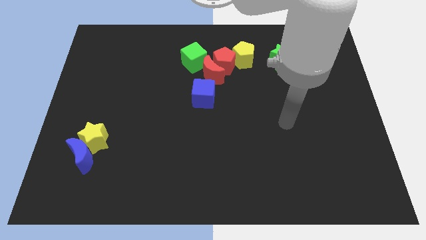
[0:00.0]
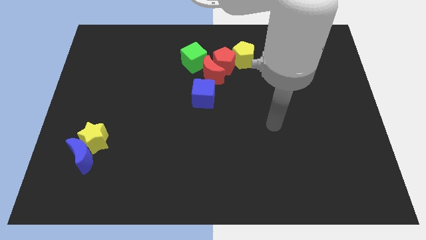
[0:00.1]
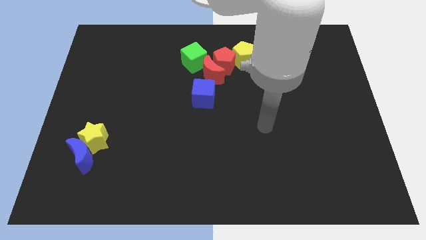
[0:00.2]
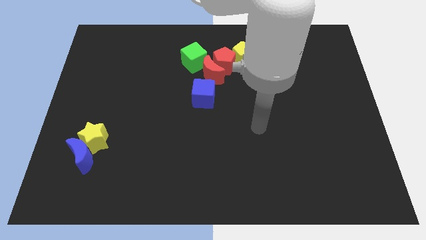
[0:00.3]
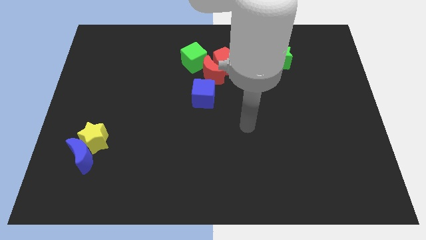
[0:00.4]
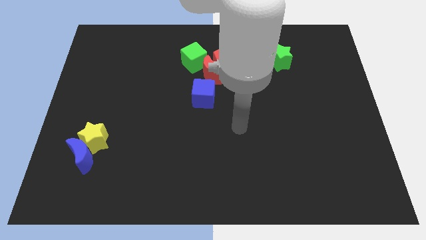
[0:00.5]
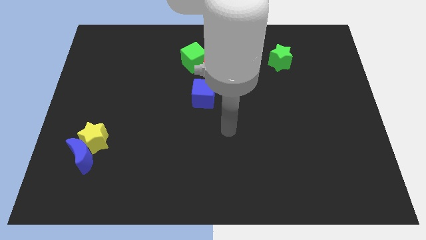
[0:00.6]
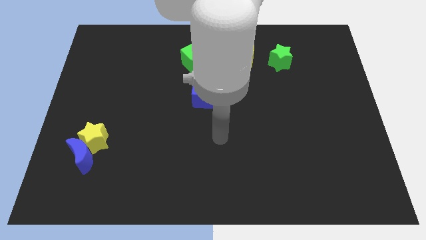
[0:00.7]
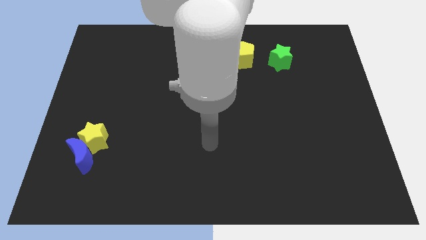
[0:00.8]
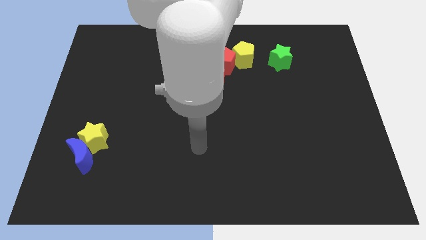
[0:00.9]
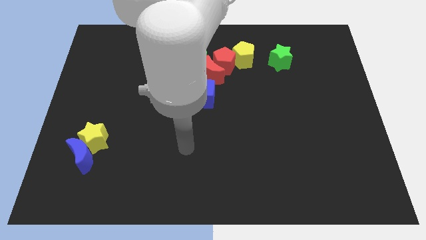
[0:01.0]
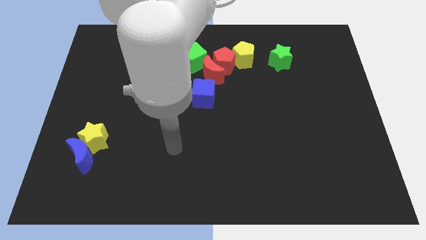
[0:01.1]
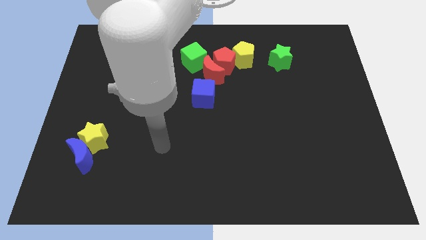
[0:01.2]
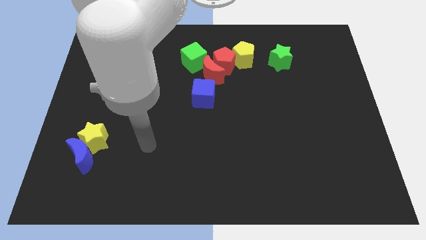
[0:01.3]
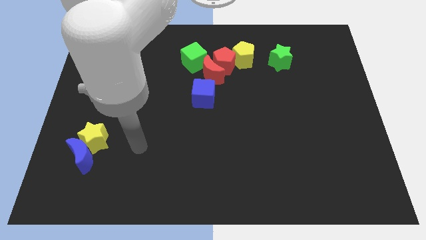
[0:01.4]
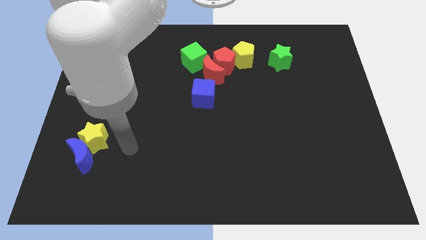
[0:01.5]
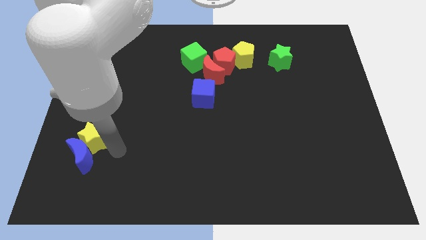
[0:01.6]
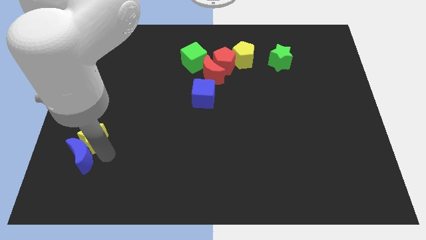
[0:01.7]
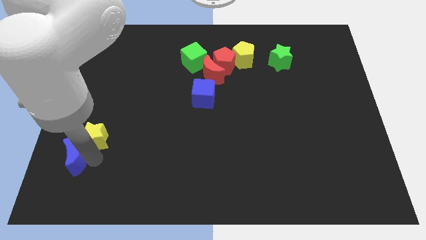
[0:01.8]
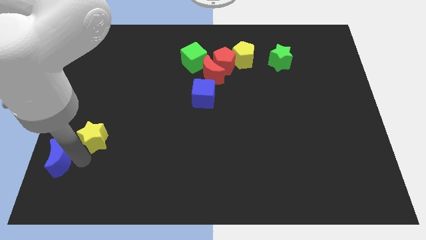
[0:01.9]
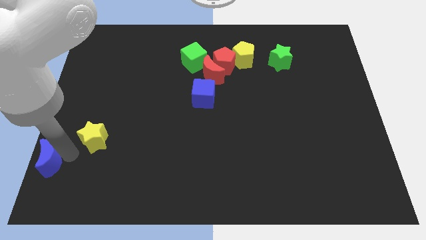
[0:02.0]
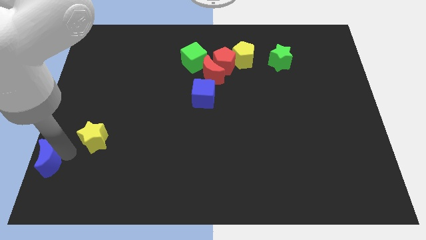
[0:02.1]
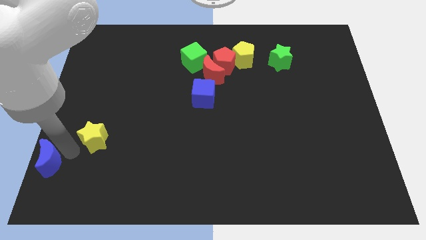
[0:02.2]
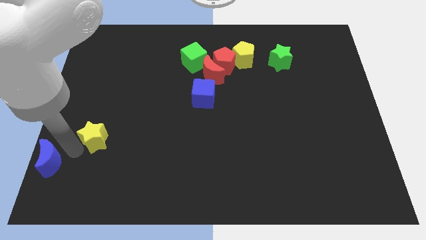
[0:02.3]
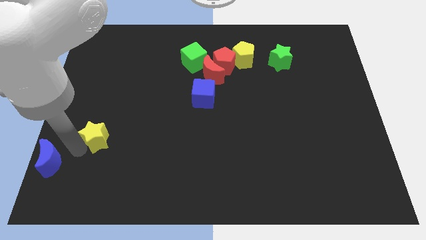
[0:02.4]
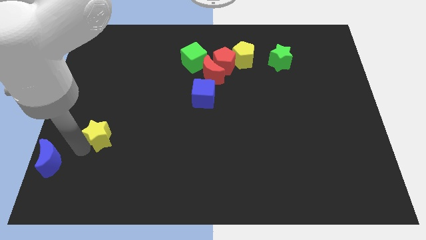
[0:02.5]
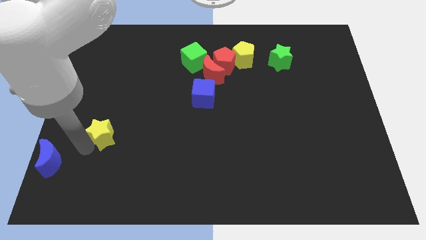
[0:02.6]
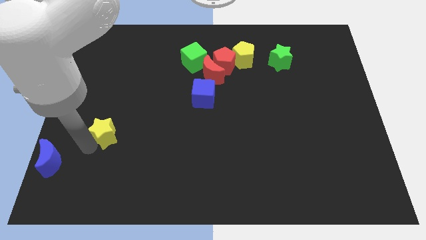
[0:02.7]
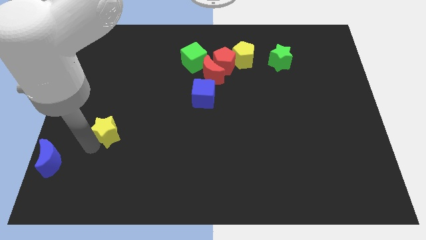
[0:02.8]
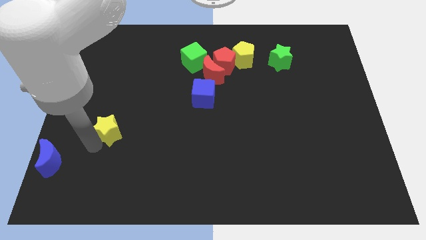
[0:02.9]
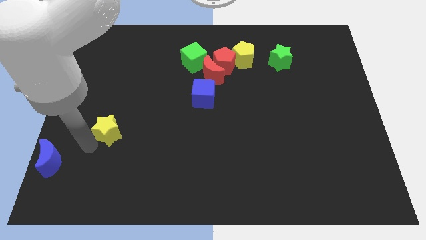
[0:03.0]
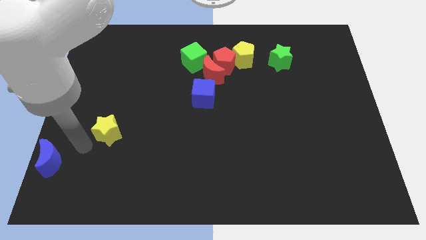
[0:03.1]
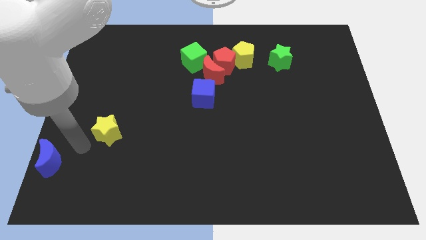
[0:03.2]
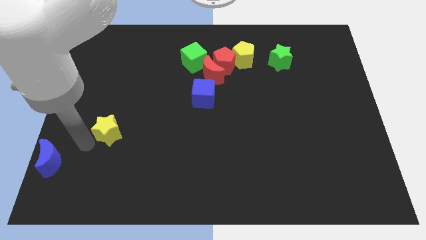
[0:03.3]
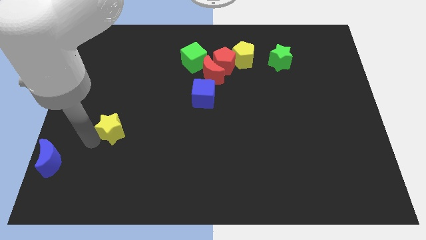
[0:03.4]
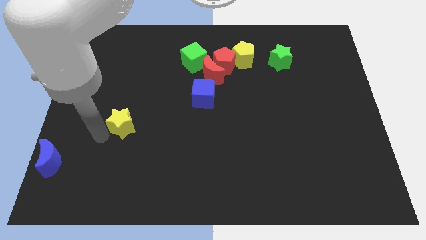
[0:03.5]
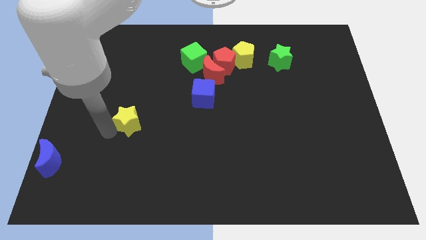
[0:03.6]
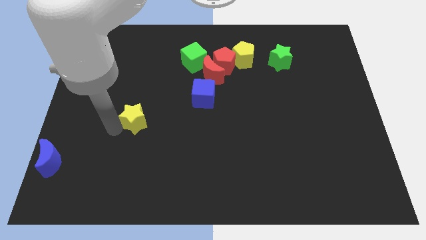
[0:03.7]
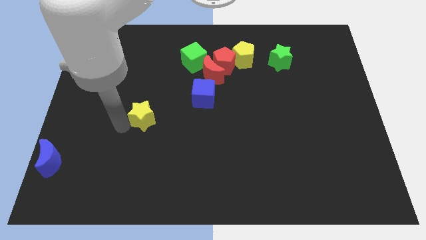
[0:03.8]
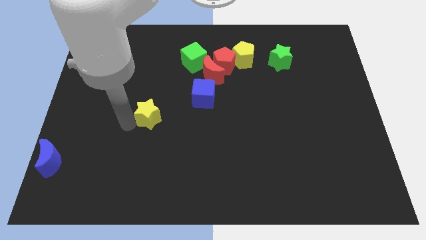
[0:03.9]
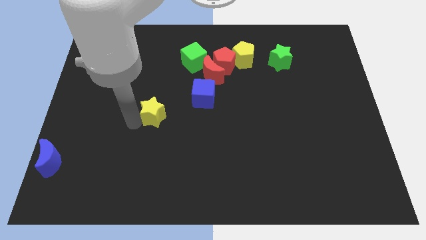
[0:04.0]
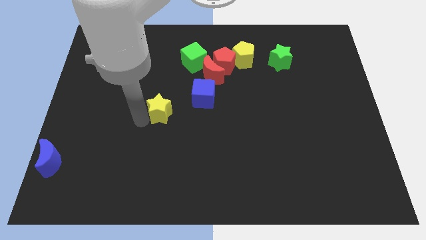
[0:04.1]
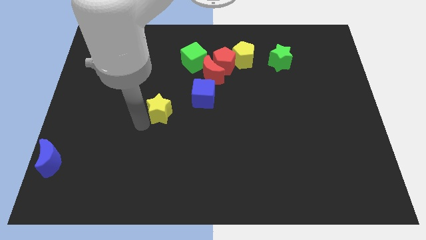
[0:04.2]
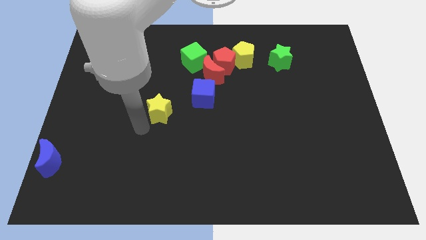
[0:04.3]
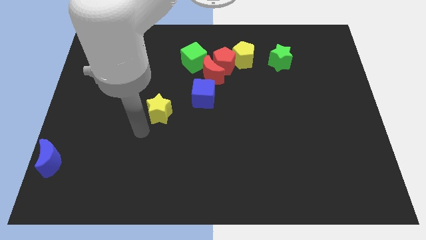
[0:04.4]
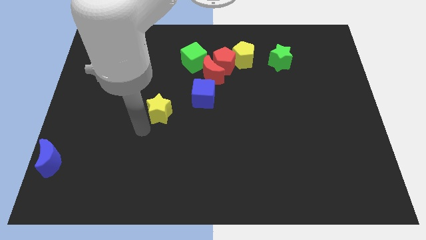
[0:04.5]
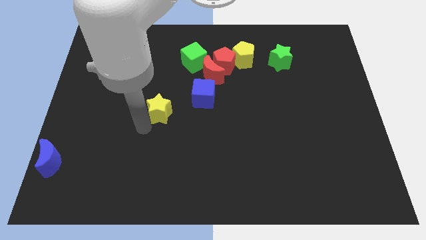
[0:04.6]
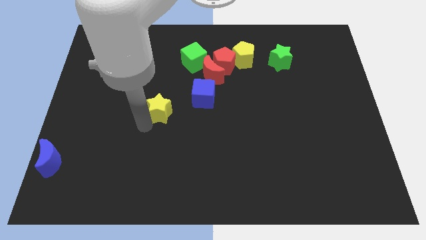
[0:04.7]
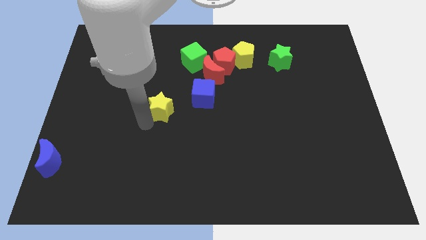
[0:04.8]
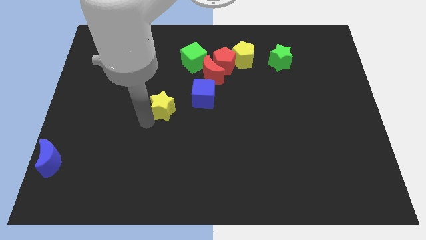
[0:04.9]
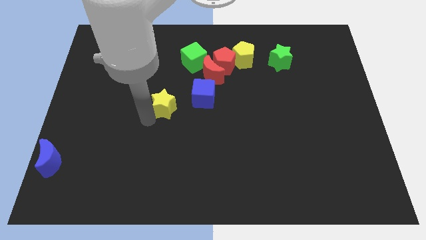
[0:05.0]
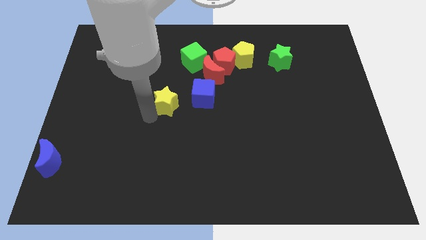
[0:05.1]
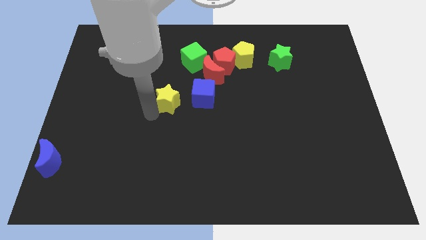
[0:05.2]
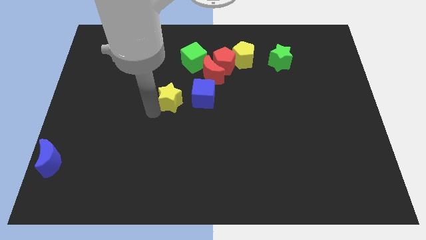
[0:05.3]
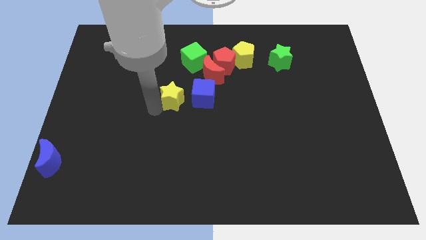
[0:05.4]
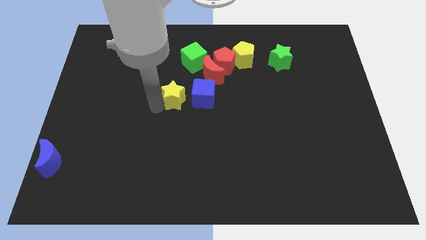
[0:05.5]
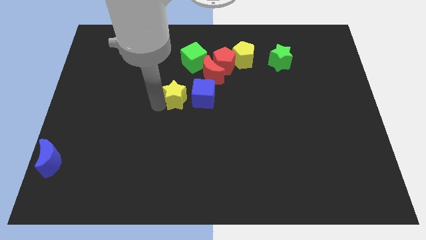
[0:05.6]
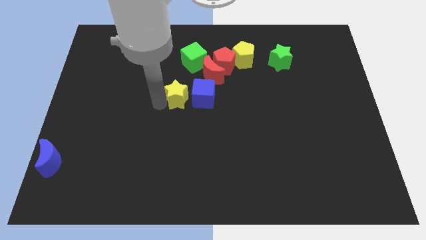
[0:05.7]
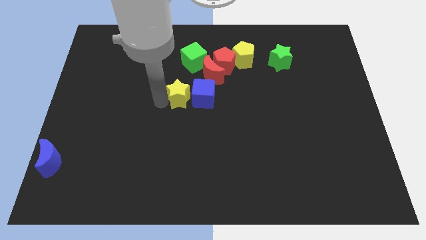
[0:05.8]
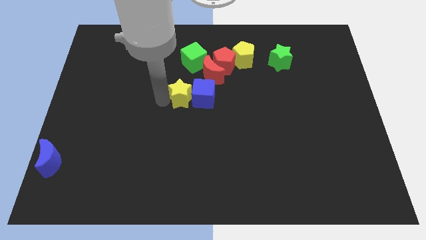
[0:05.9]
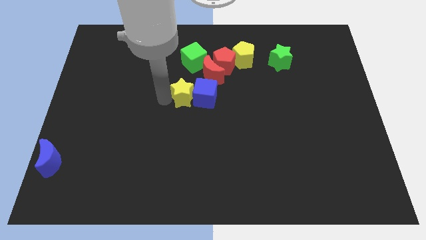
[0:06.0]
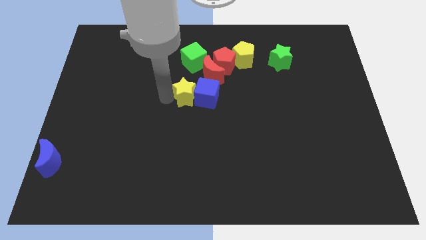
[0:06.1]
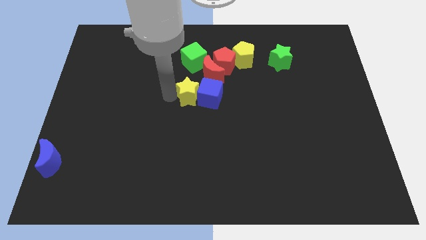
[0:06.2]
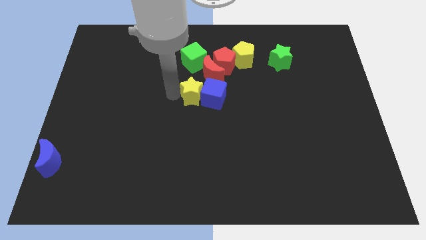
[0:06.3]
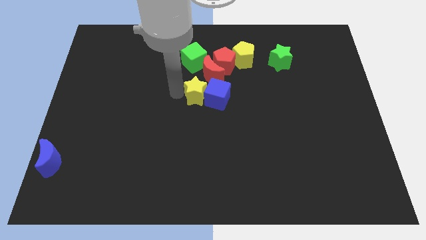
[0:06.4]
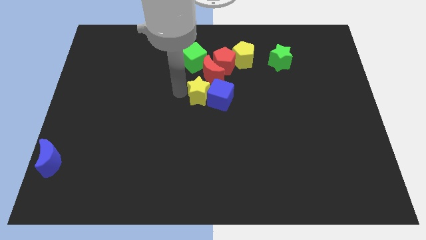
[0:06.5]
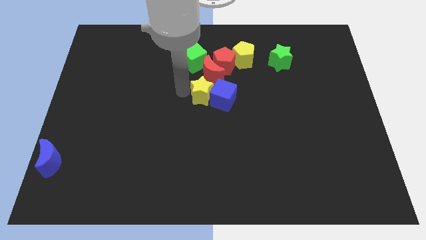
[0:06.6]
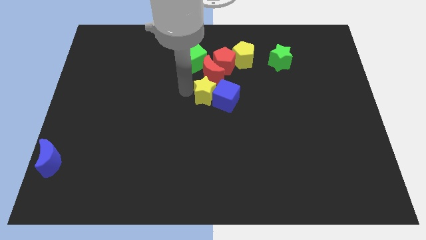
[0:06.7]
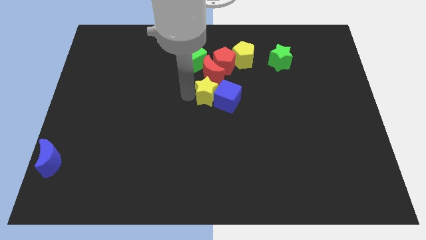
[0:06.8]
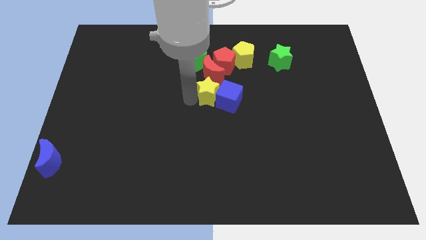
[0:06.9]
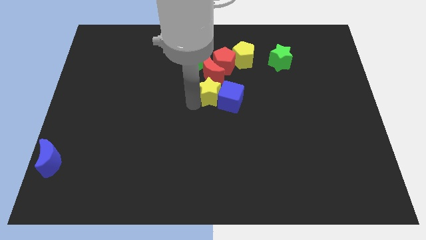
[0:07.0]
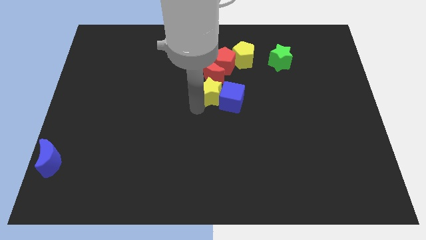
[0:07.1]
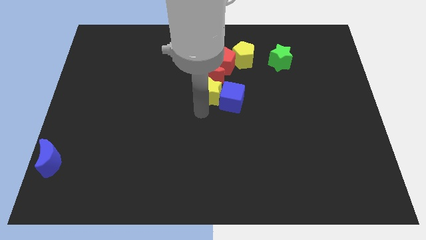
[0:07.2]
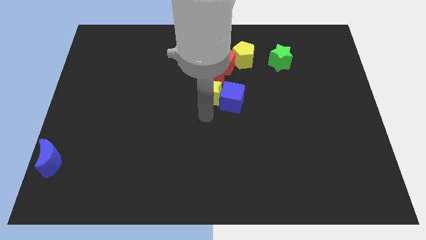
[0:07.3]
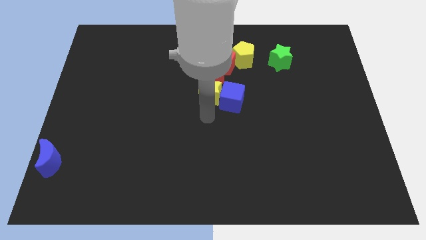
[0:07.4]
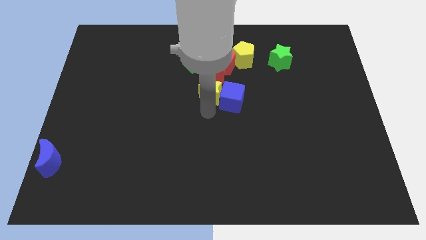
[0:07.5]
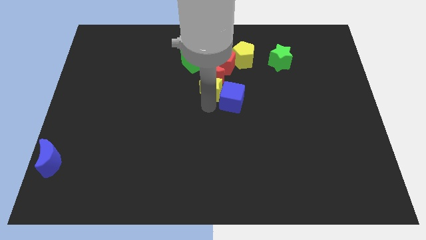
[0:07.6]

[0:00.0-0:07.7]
put the yellow star close to the red moon
